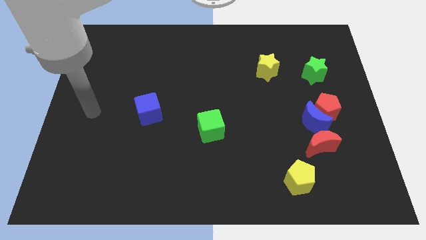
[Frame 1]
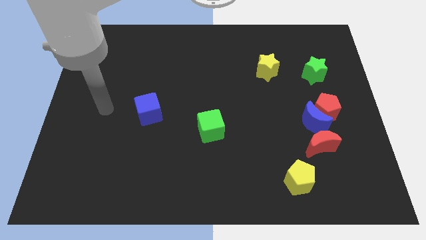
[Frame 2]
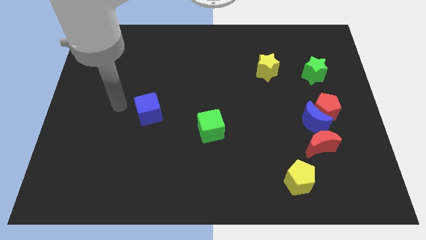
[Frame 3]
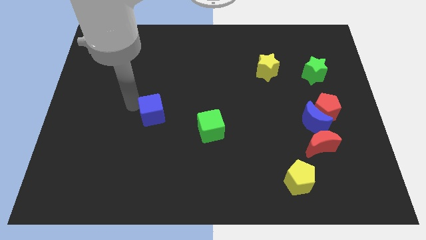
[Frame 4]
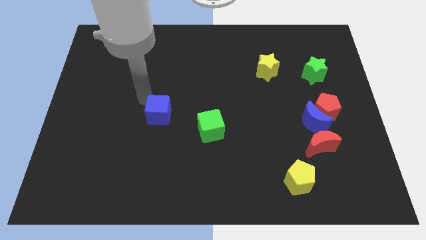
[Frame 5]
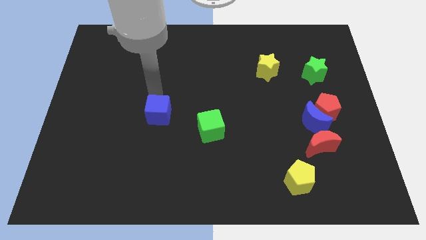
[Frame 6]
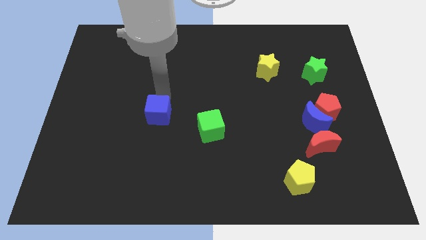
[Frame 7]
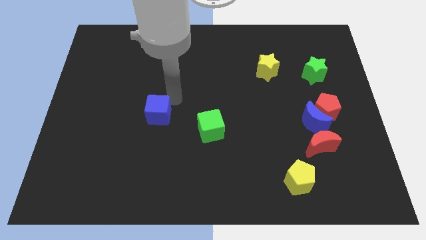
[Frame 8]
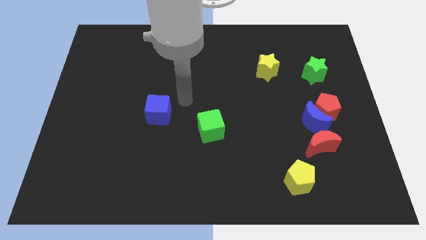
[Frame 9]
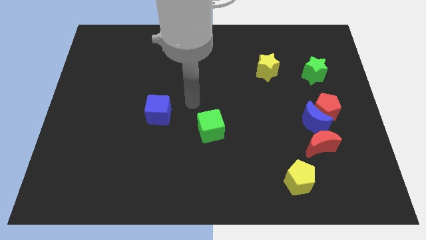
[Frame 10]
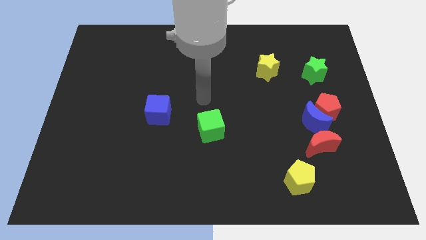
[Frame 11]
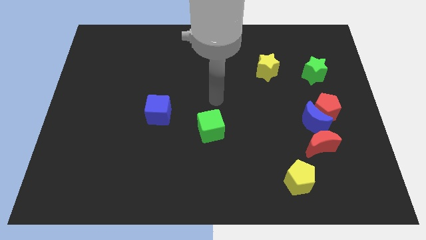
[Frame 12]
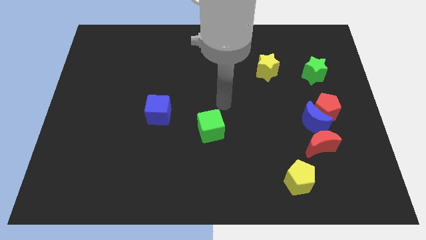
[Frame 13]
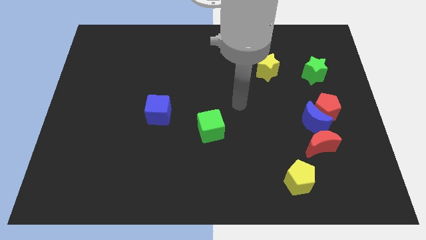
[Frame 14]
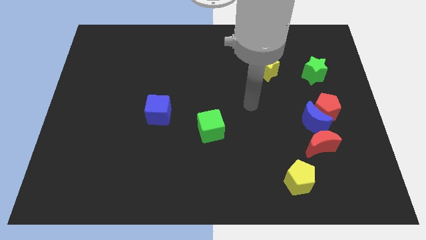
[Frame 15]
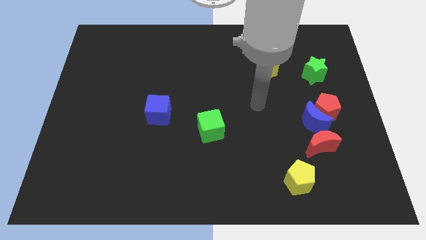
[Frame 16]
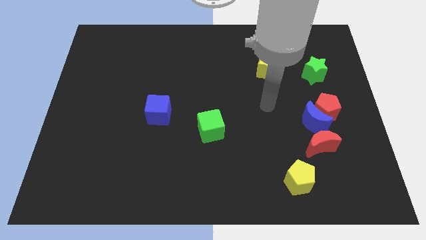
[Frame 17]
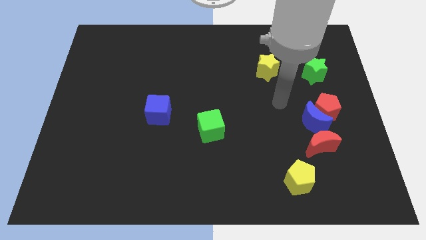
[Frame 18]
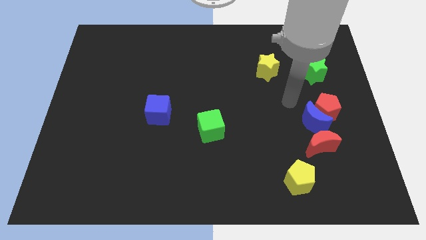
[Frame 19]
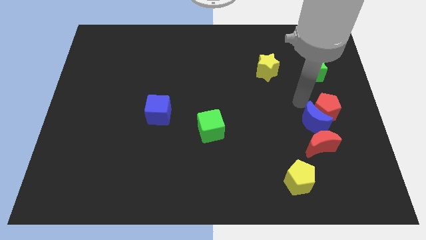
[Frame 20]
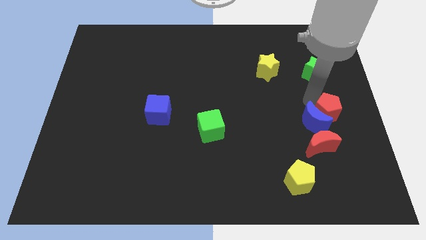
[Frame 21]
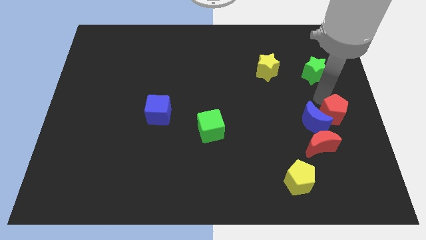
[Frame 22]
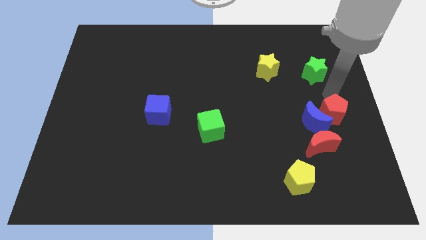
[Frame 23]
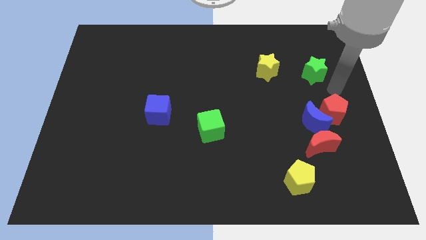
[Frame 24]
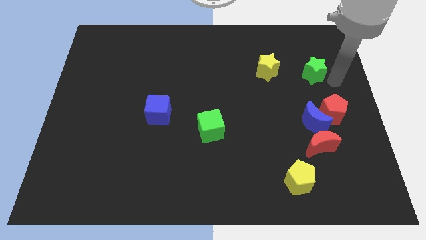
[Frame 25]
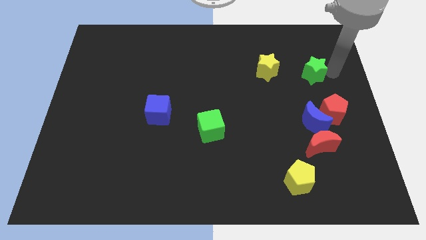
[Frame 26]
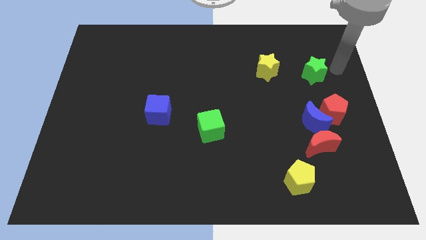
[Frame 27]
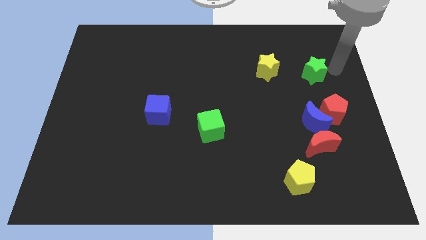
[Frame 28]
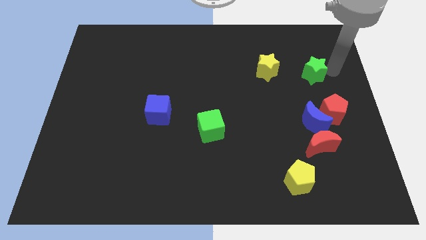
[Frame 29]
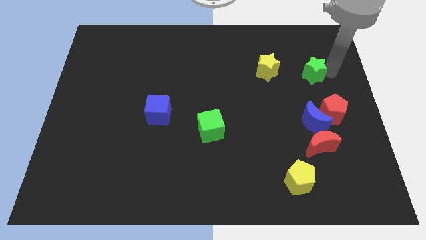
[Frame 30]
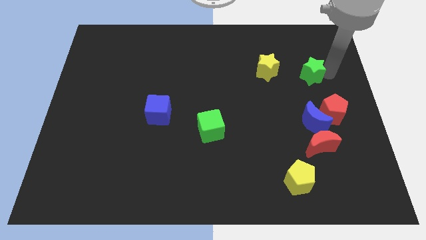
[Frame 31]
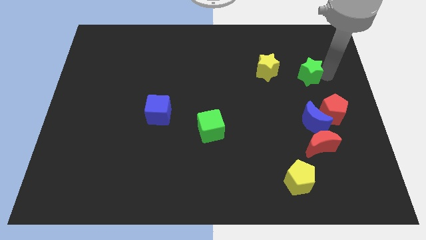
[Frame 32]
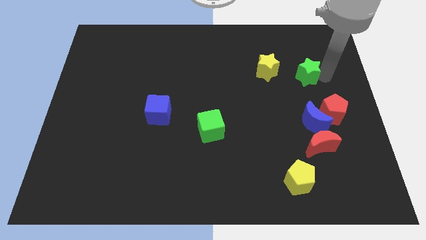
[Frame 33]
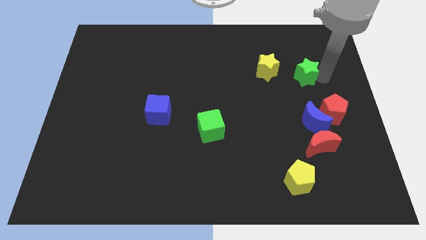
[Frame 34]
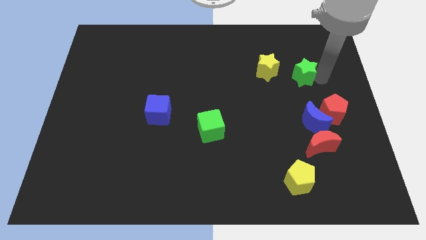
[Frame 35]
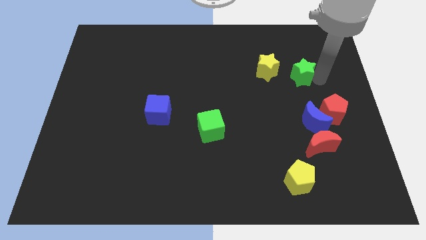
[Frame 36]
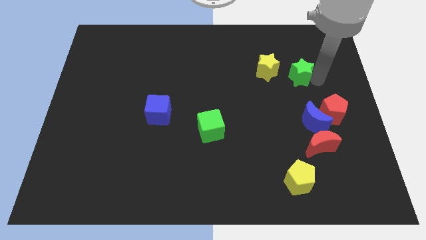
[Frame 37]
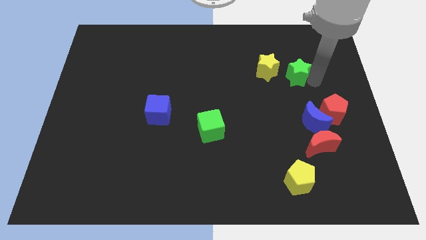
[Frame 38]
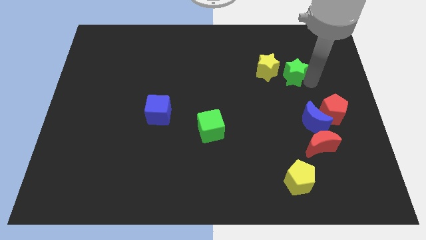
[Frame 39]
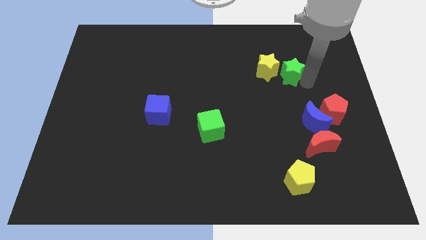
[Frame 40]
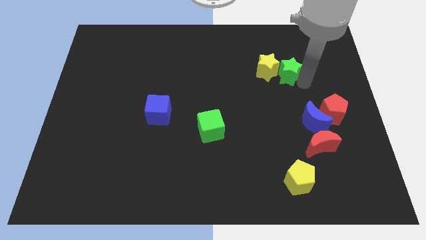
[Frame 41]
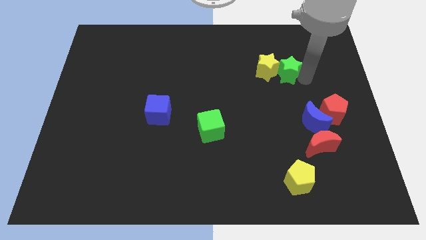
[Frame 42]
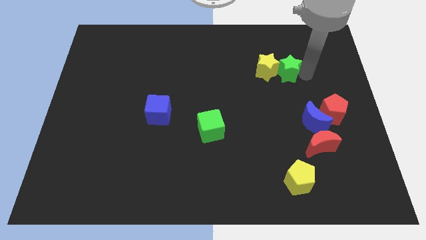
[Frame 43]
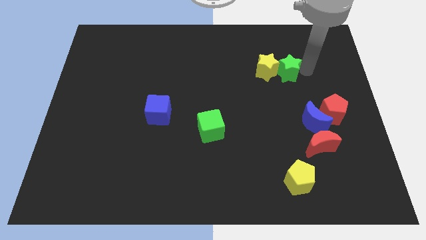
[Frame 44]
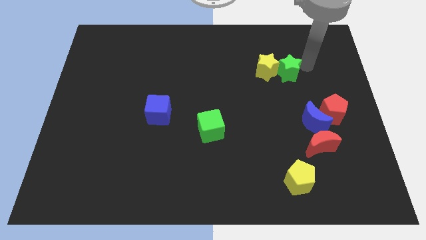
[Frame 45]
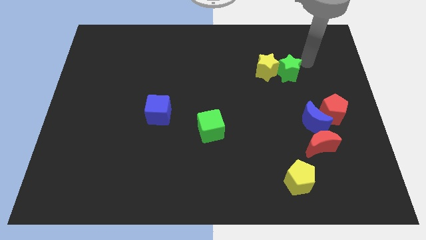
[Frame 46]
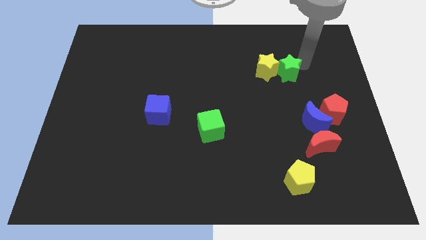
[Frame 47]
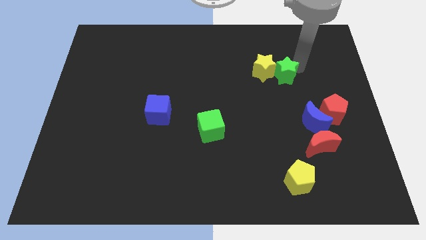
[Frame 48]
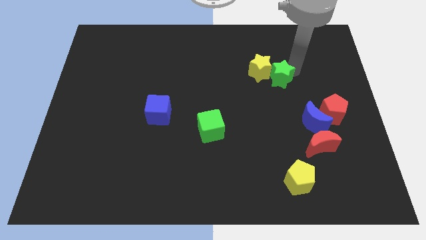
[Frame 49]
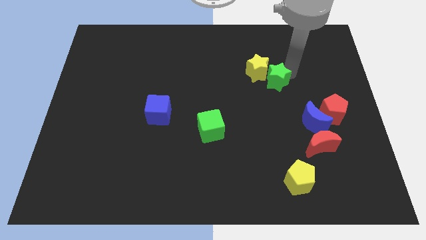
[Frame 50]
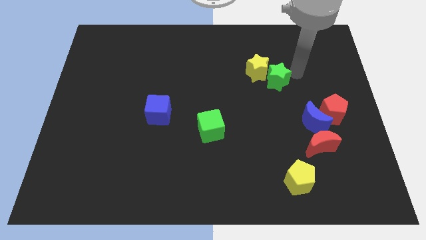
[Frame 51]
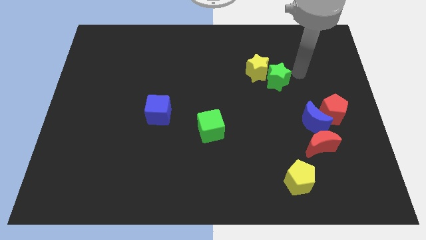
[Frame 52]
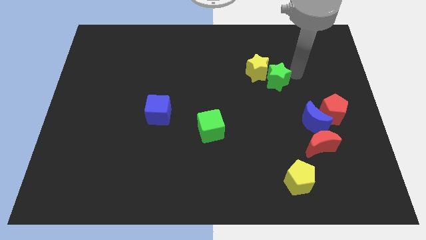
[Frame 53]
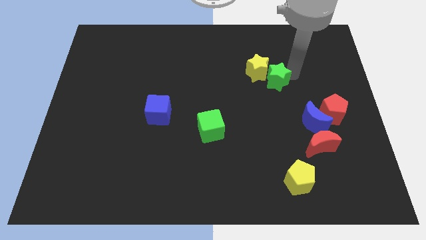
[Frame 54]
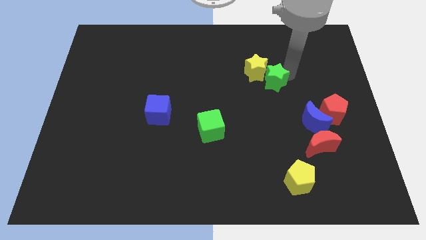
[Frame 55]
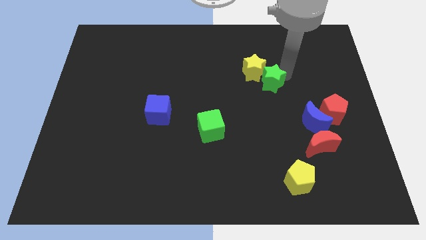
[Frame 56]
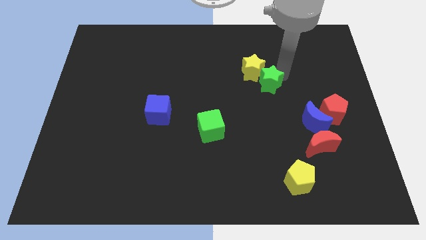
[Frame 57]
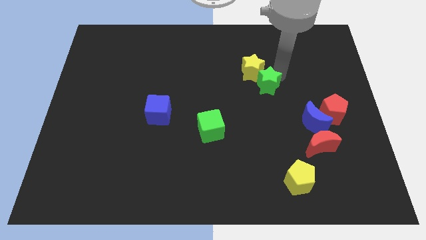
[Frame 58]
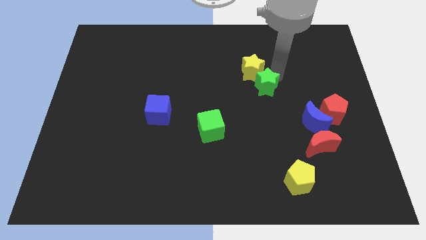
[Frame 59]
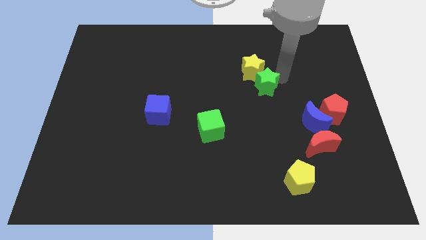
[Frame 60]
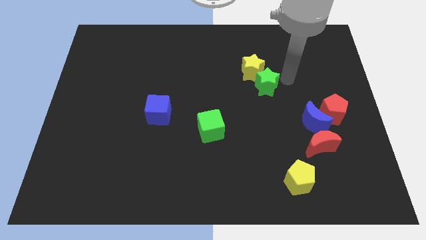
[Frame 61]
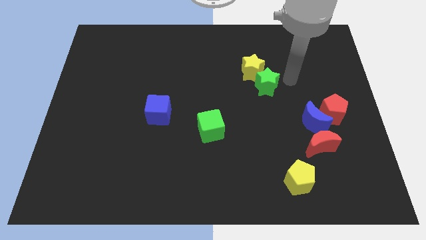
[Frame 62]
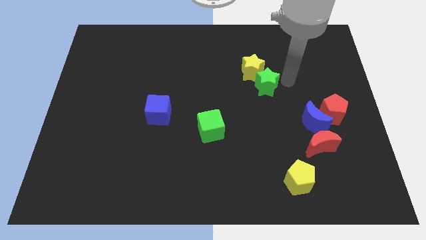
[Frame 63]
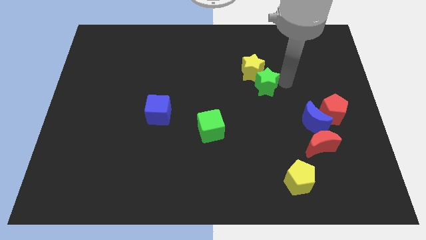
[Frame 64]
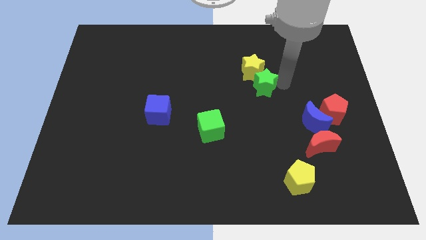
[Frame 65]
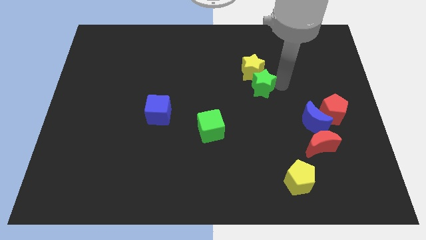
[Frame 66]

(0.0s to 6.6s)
slide the green star to the middle of the board
